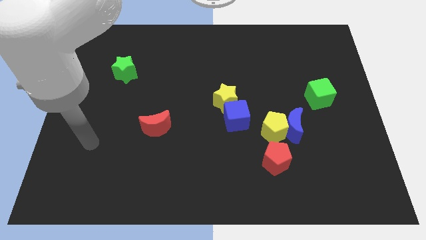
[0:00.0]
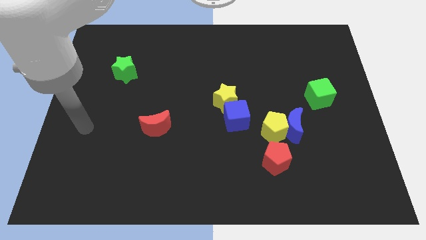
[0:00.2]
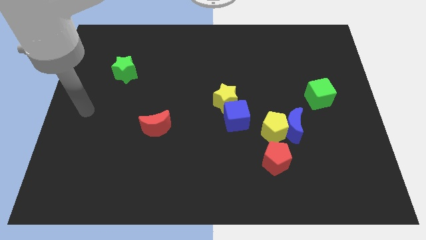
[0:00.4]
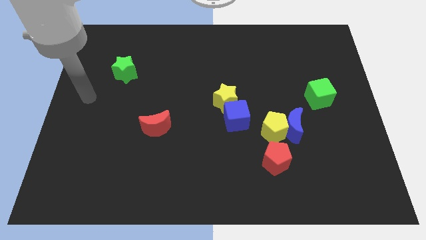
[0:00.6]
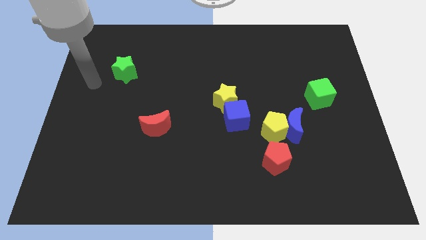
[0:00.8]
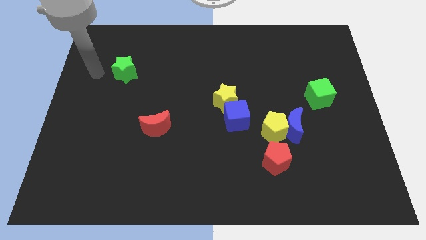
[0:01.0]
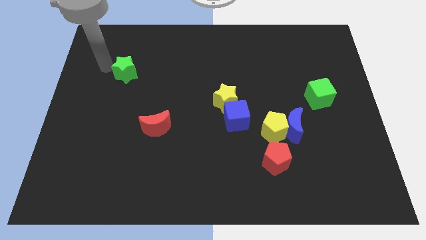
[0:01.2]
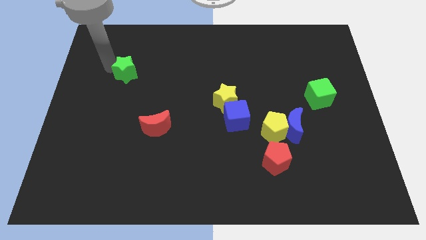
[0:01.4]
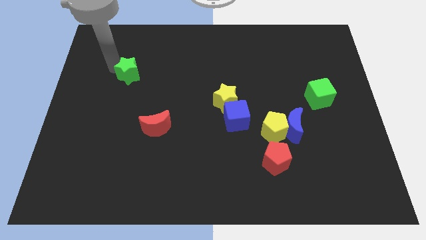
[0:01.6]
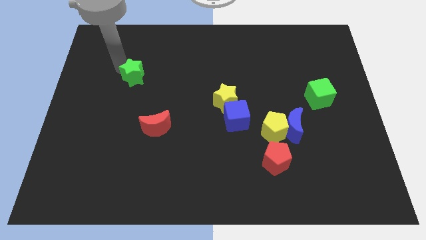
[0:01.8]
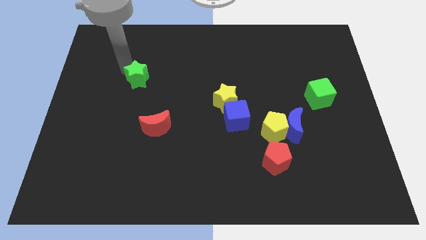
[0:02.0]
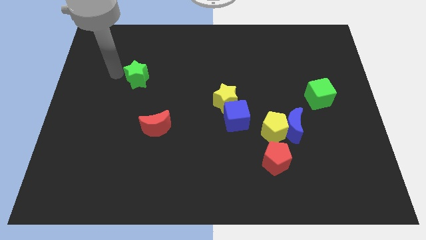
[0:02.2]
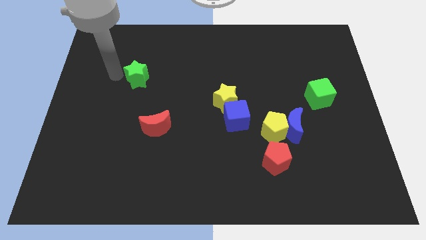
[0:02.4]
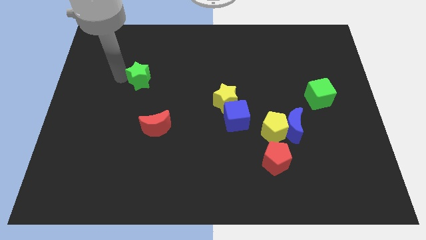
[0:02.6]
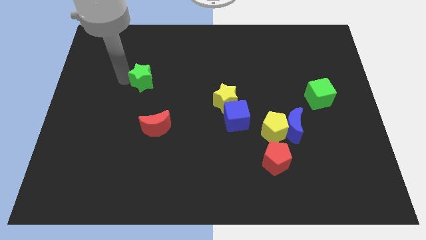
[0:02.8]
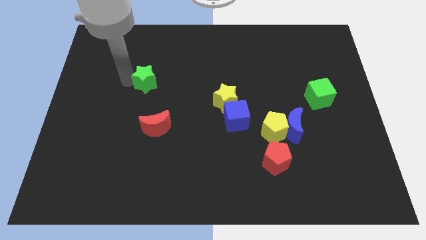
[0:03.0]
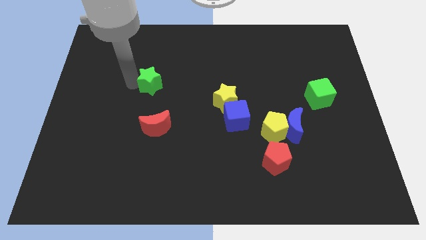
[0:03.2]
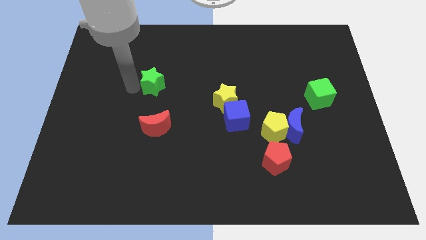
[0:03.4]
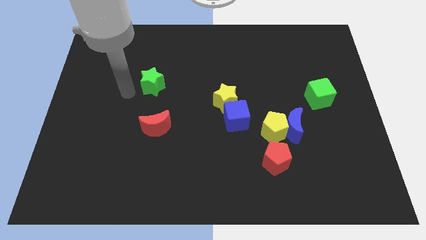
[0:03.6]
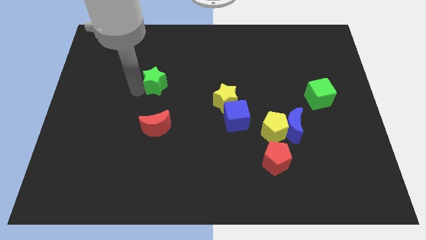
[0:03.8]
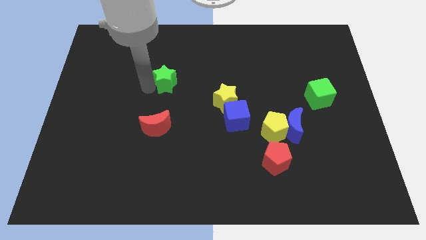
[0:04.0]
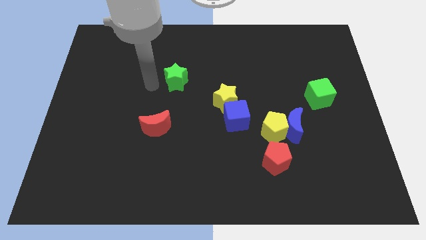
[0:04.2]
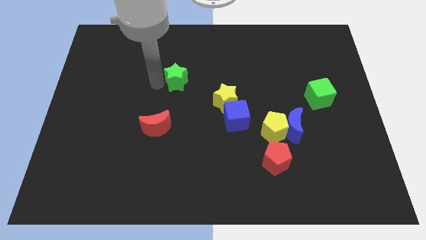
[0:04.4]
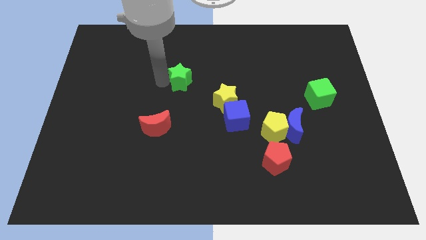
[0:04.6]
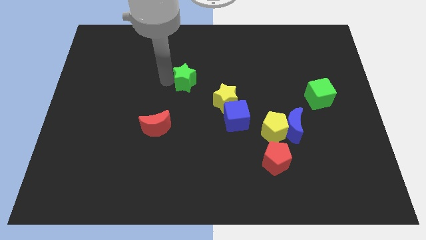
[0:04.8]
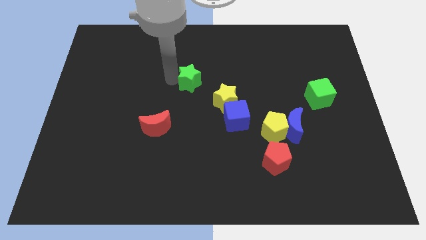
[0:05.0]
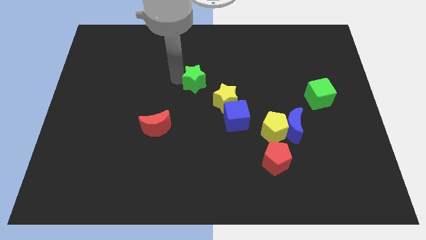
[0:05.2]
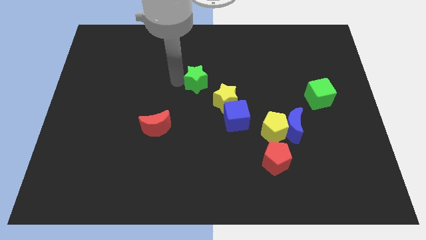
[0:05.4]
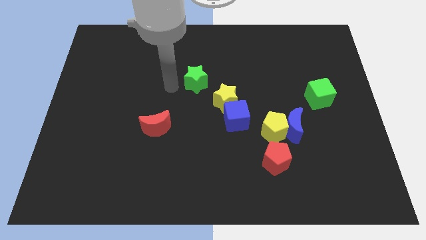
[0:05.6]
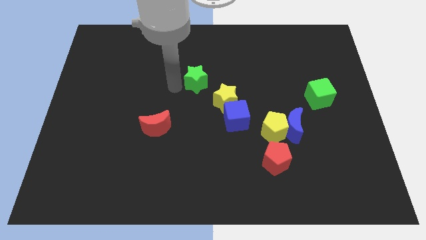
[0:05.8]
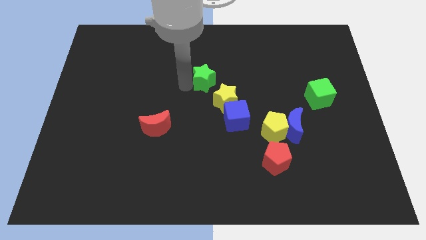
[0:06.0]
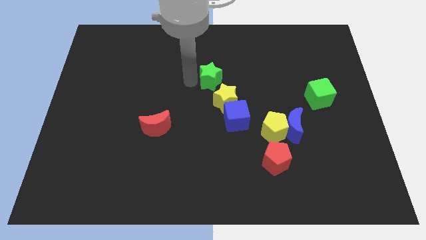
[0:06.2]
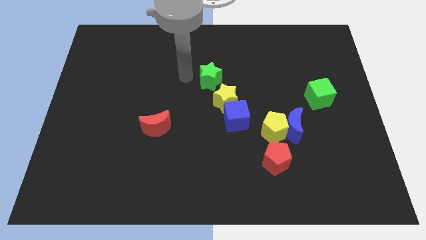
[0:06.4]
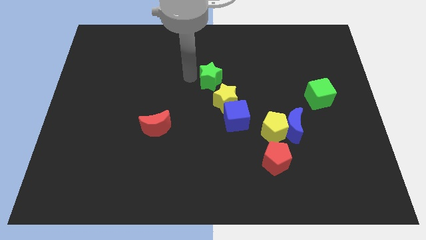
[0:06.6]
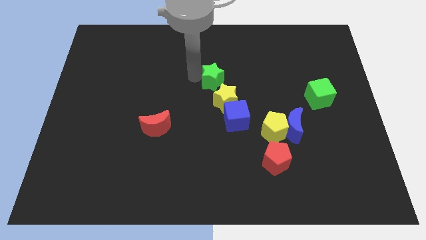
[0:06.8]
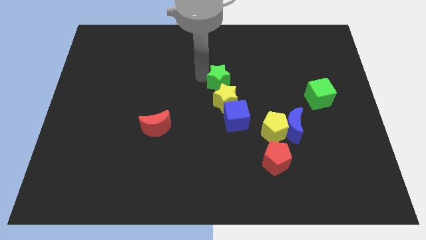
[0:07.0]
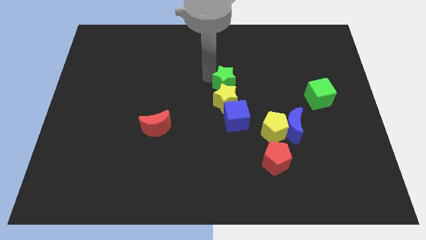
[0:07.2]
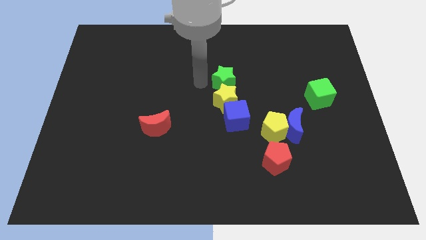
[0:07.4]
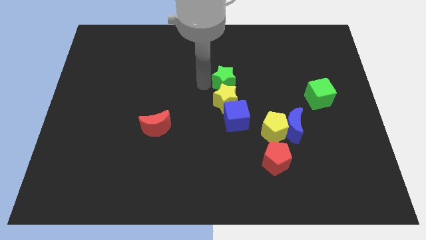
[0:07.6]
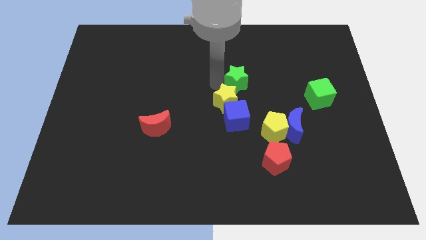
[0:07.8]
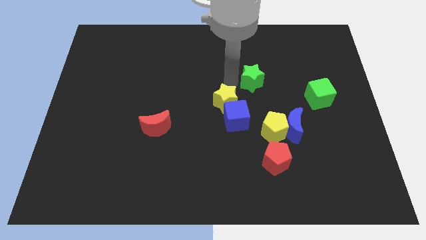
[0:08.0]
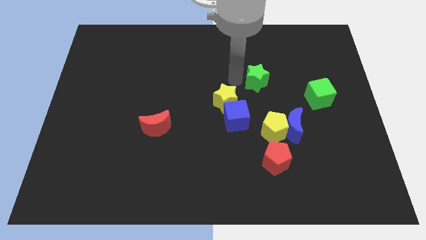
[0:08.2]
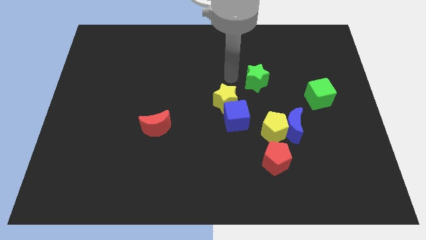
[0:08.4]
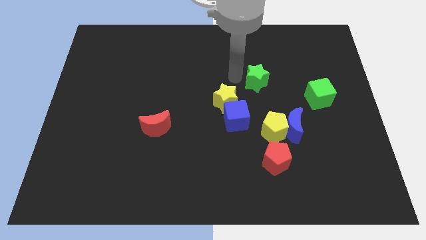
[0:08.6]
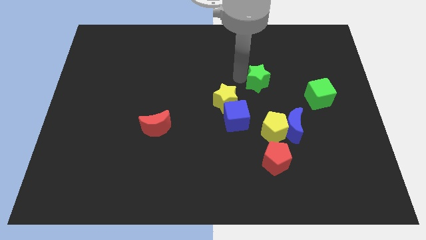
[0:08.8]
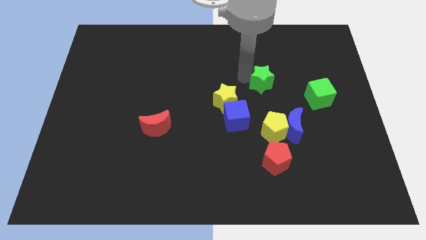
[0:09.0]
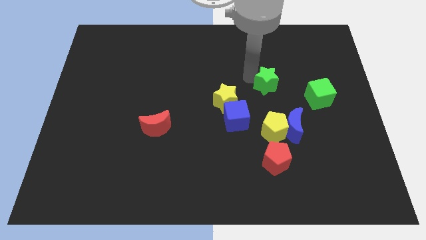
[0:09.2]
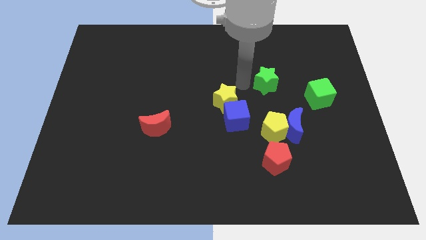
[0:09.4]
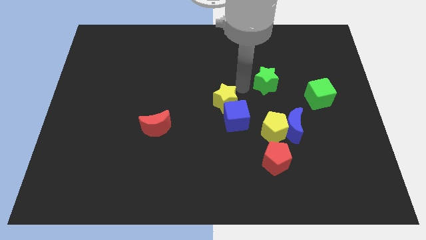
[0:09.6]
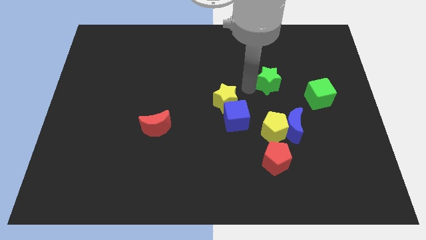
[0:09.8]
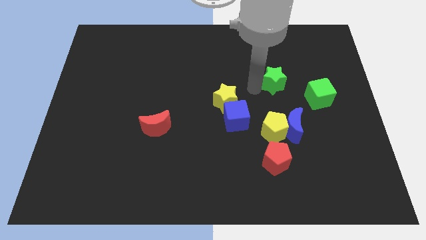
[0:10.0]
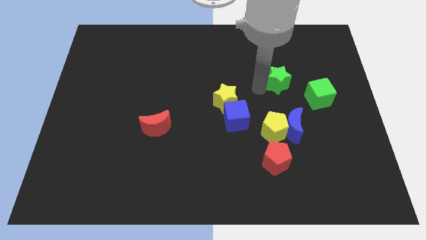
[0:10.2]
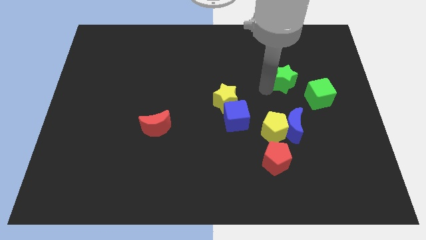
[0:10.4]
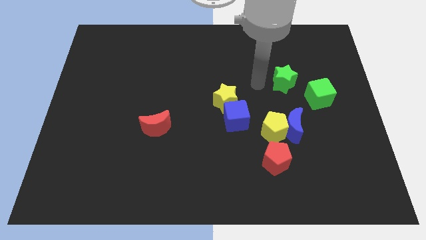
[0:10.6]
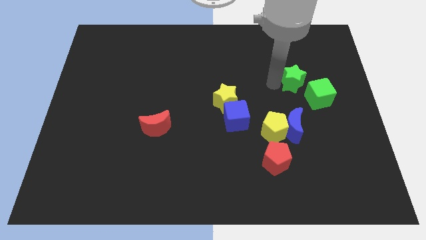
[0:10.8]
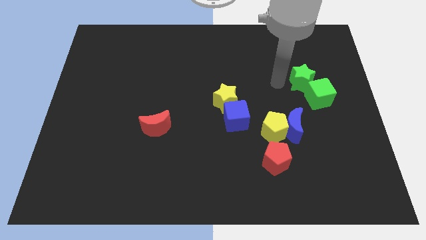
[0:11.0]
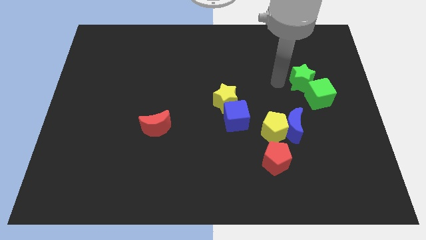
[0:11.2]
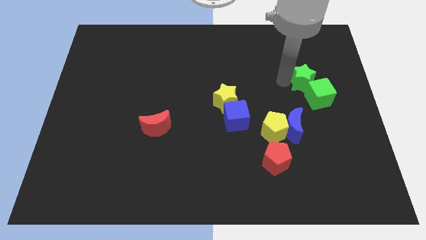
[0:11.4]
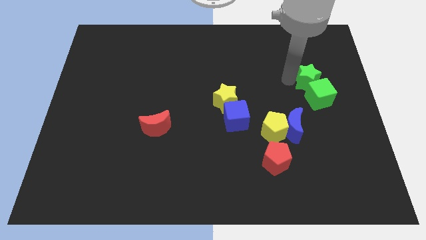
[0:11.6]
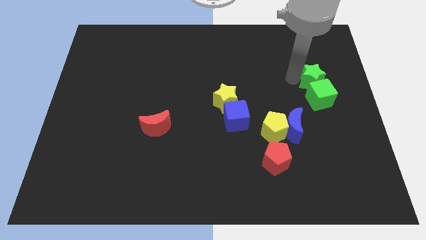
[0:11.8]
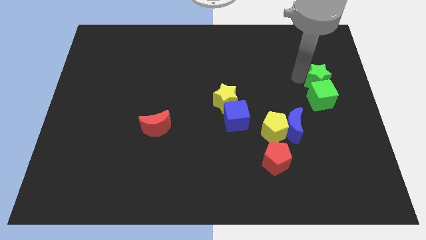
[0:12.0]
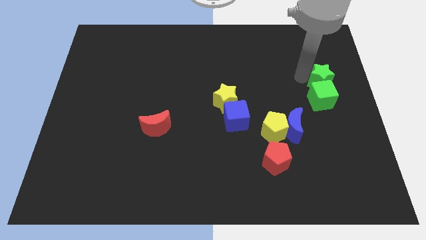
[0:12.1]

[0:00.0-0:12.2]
move the green star to the right side of the board
